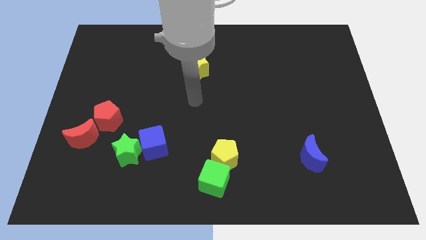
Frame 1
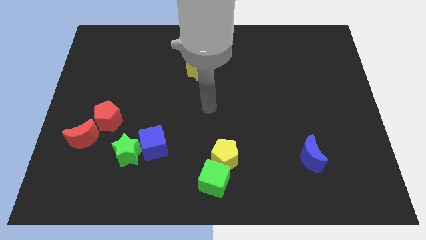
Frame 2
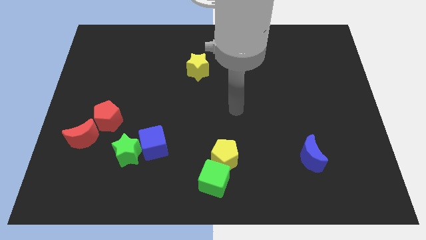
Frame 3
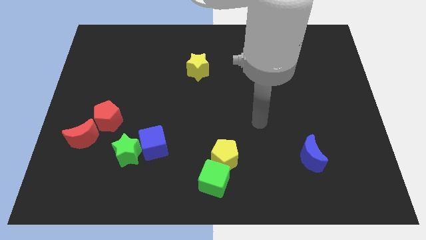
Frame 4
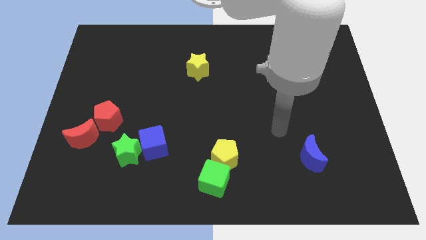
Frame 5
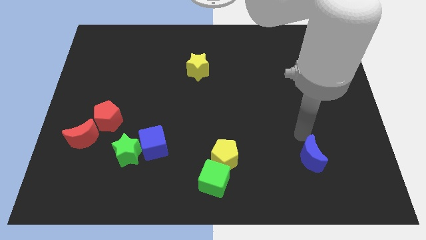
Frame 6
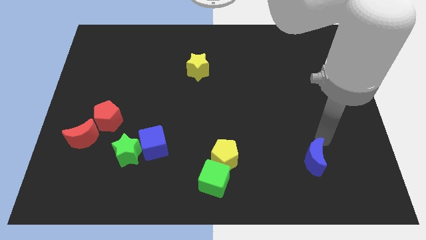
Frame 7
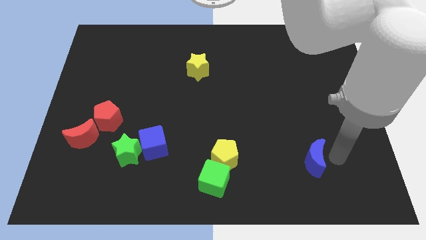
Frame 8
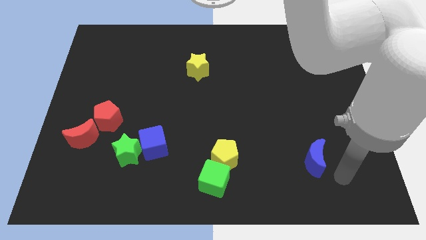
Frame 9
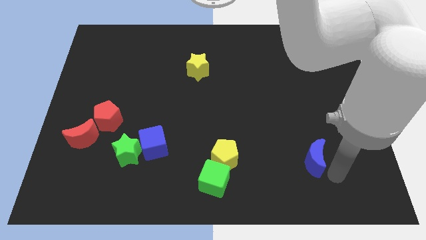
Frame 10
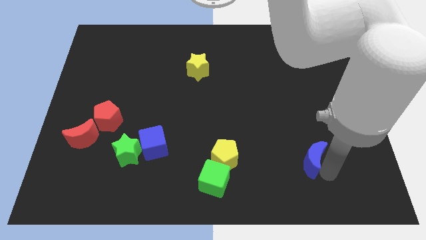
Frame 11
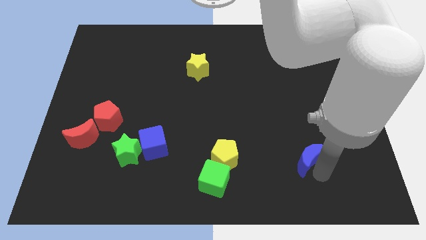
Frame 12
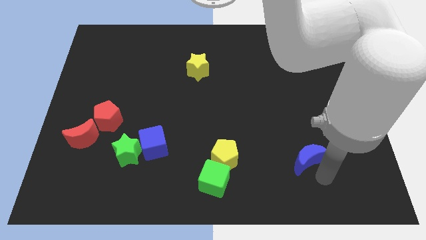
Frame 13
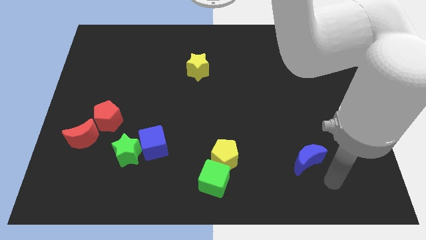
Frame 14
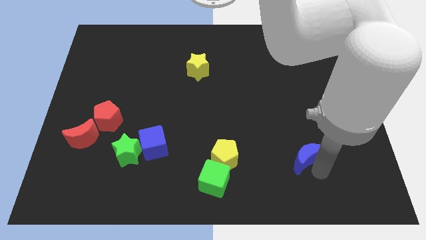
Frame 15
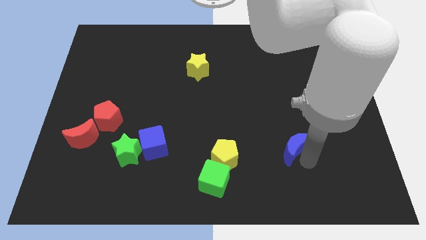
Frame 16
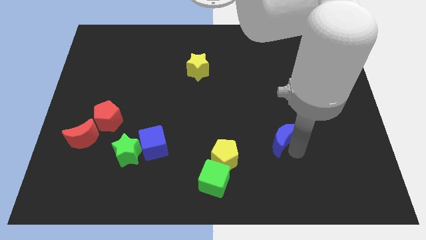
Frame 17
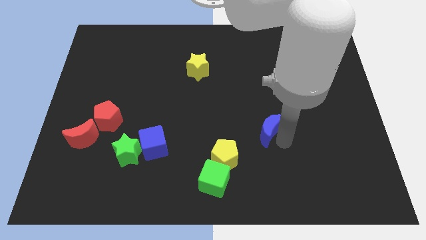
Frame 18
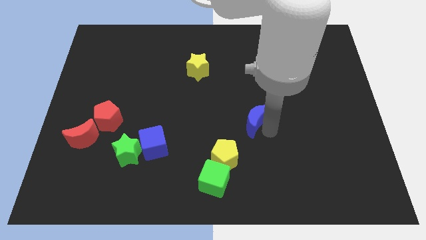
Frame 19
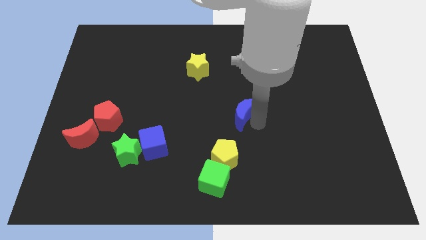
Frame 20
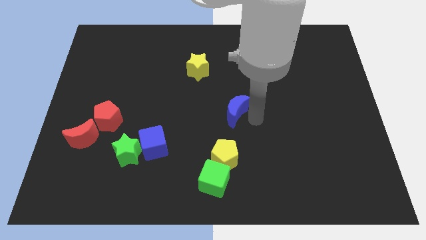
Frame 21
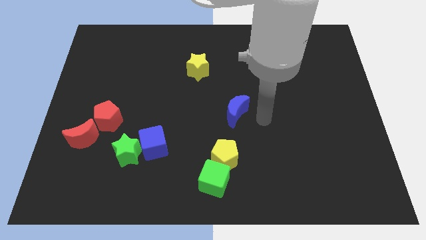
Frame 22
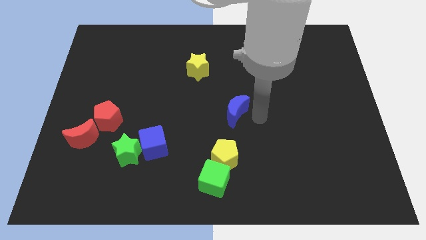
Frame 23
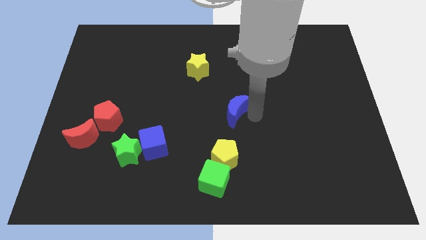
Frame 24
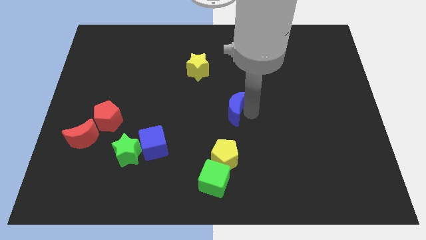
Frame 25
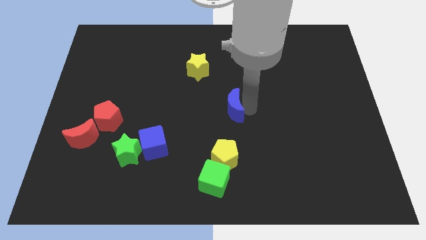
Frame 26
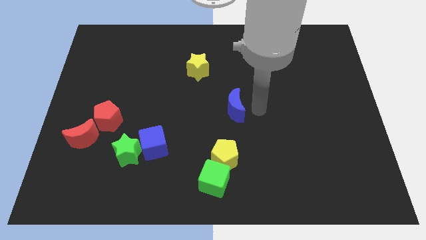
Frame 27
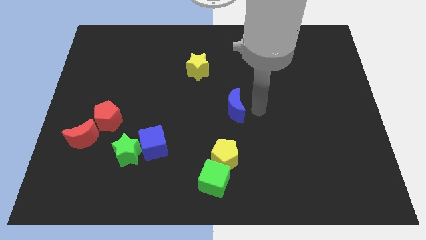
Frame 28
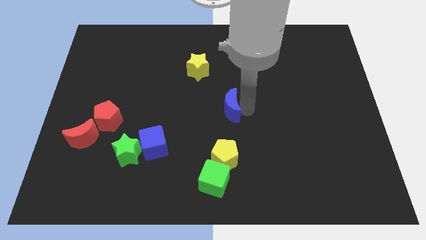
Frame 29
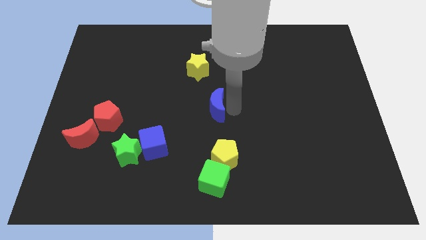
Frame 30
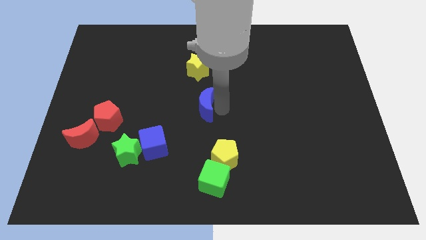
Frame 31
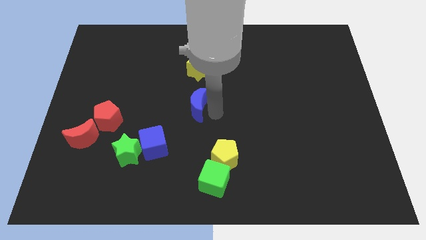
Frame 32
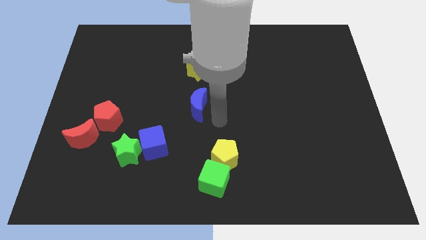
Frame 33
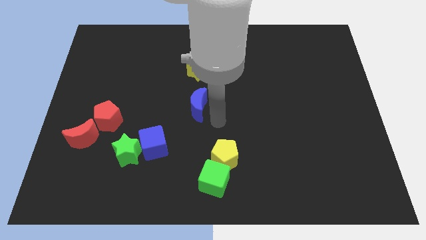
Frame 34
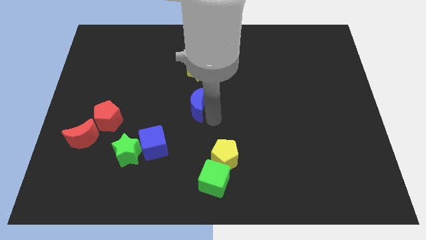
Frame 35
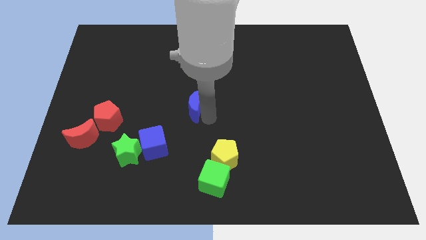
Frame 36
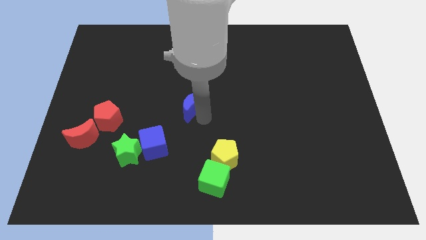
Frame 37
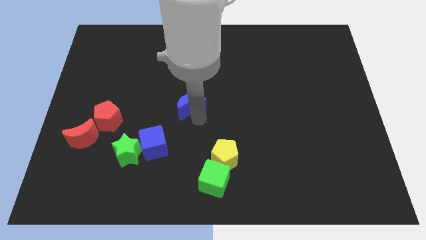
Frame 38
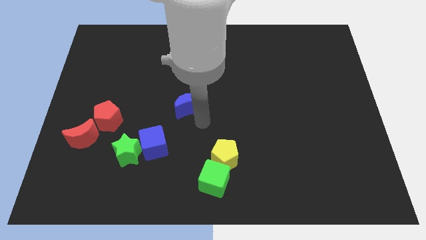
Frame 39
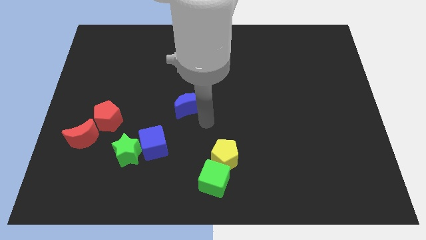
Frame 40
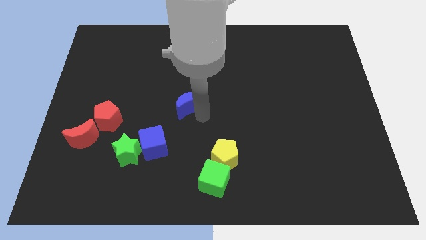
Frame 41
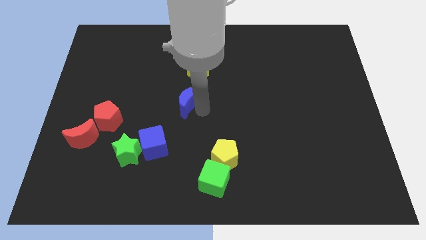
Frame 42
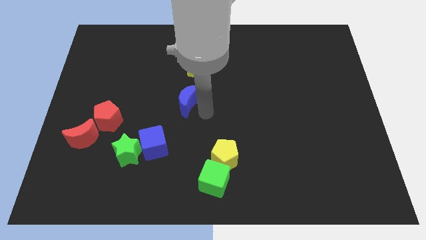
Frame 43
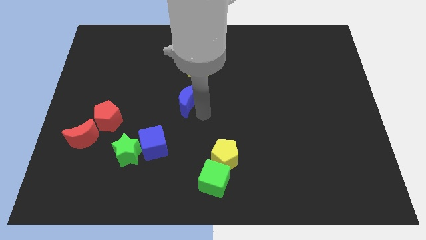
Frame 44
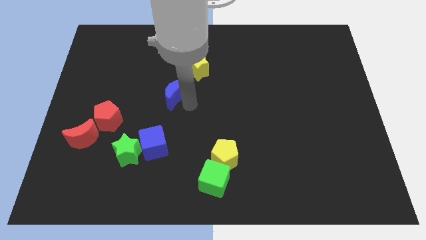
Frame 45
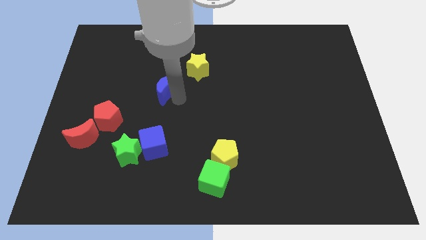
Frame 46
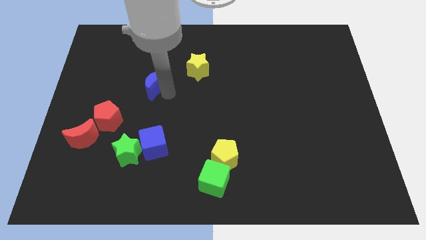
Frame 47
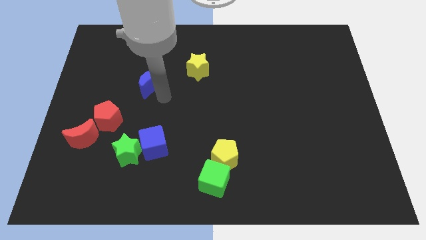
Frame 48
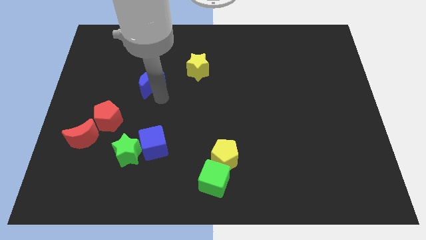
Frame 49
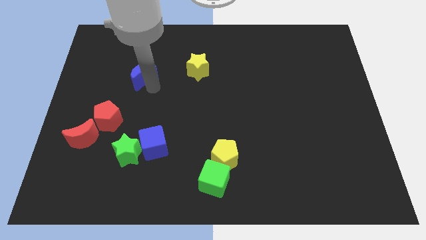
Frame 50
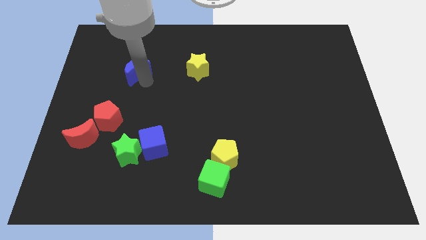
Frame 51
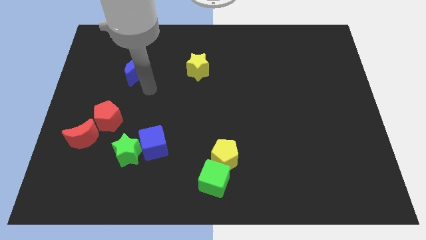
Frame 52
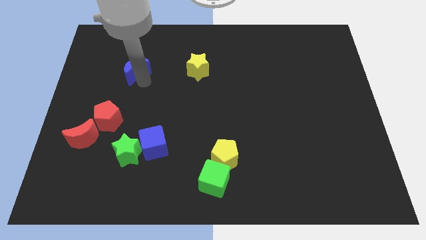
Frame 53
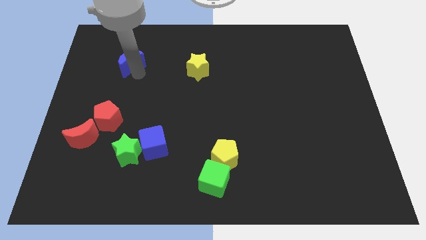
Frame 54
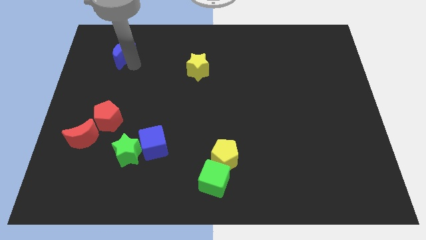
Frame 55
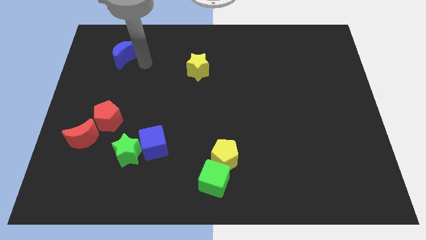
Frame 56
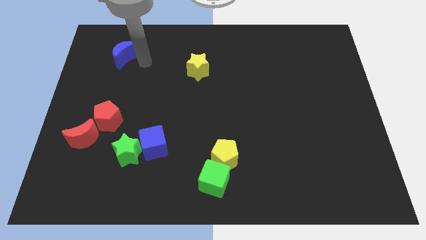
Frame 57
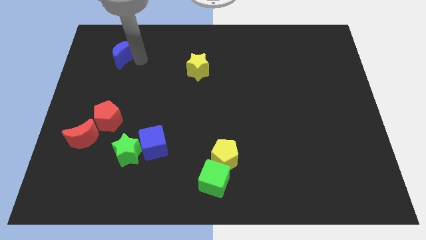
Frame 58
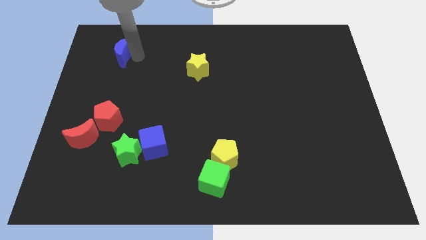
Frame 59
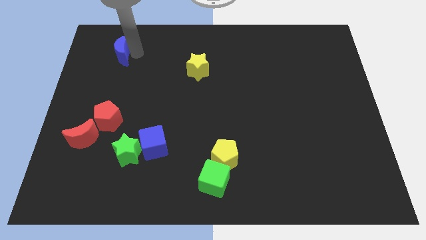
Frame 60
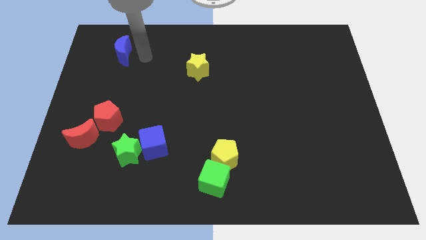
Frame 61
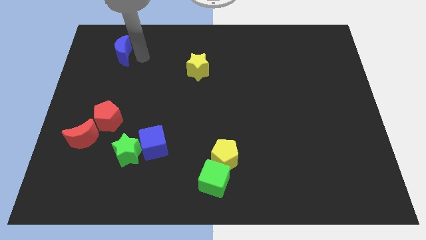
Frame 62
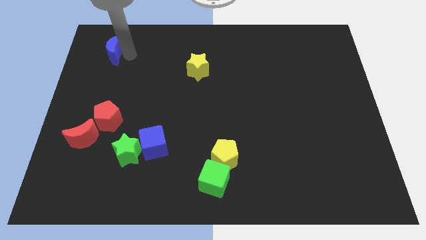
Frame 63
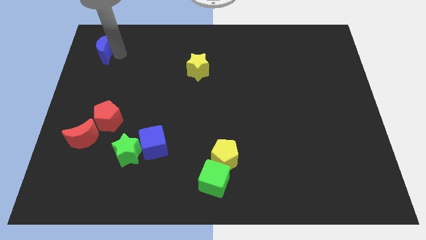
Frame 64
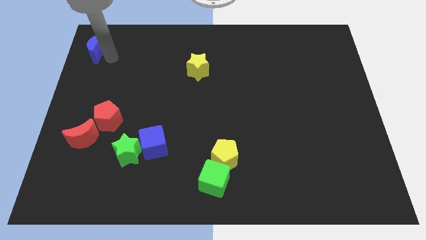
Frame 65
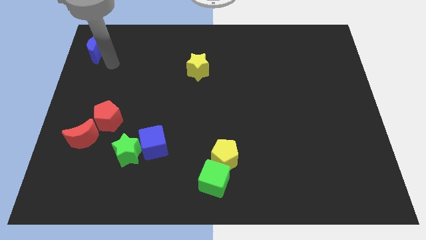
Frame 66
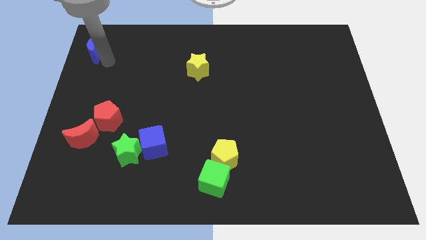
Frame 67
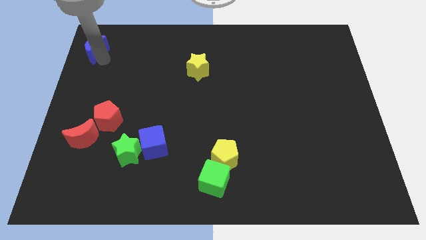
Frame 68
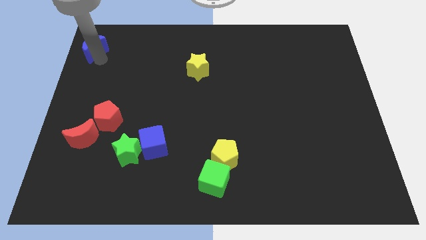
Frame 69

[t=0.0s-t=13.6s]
move the blue moon to the top left of the board
